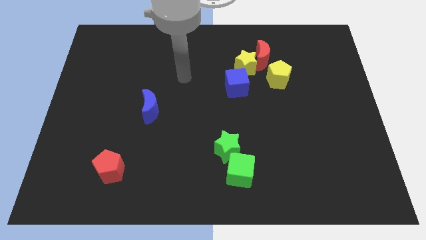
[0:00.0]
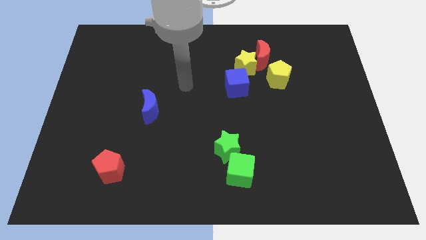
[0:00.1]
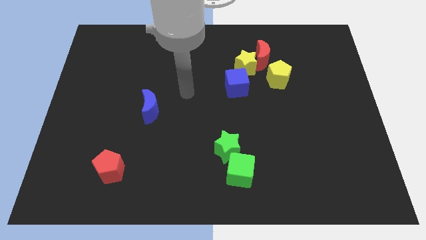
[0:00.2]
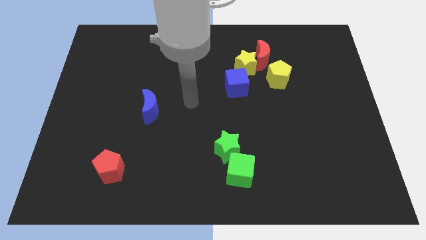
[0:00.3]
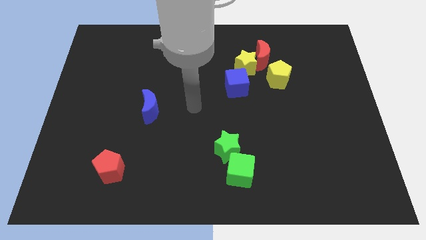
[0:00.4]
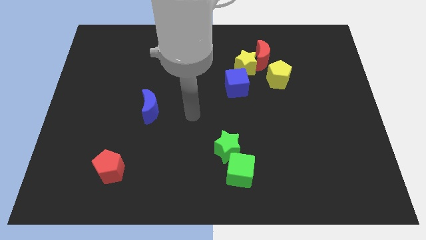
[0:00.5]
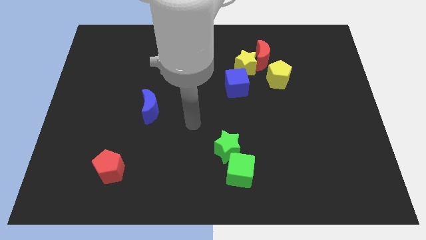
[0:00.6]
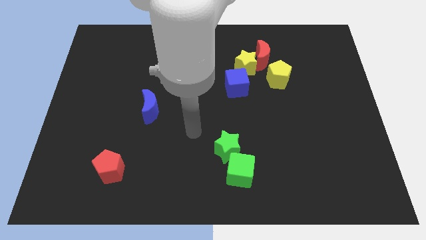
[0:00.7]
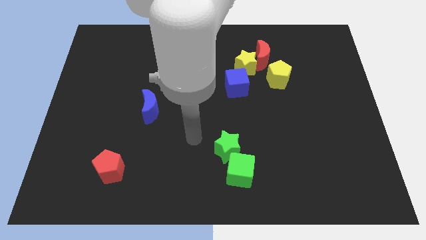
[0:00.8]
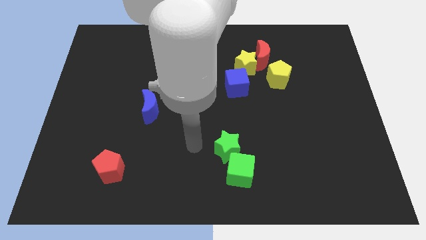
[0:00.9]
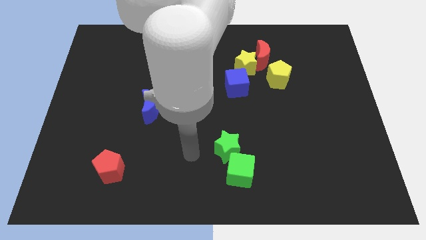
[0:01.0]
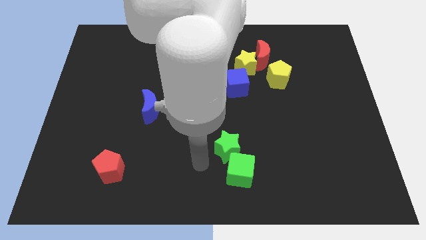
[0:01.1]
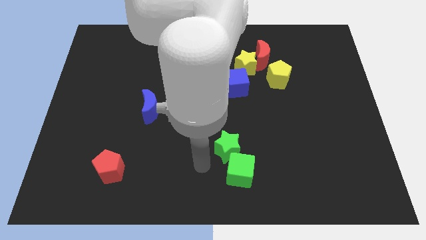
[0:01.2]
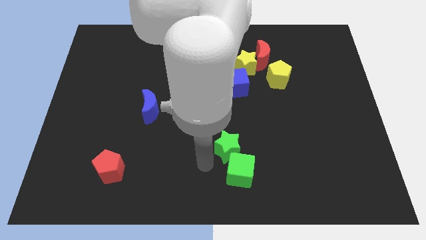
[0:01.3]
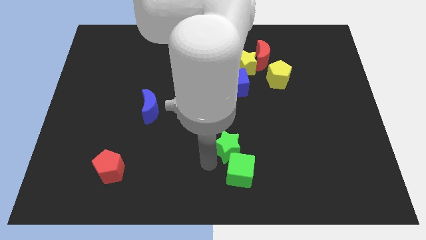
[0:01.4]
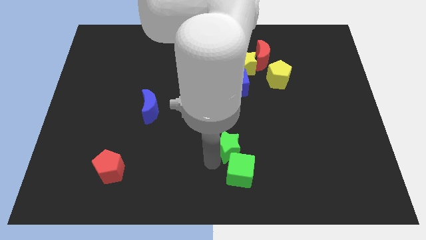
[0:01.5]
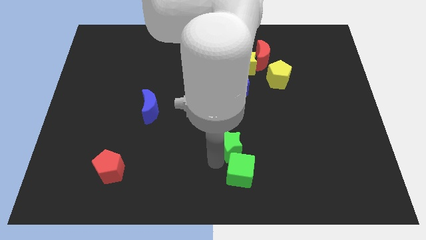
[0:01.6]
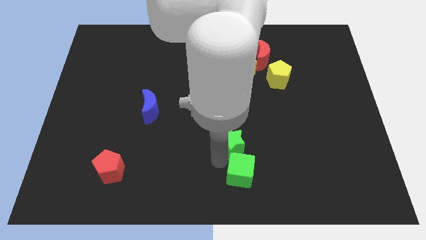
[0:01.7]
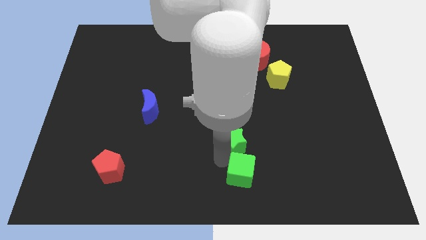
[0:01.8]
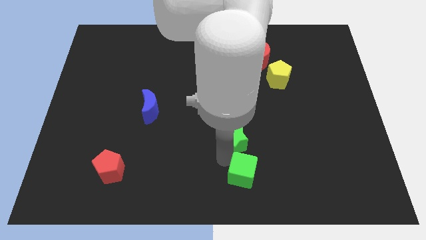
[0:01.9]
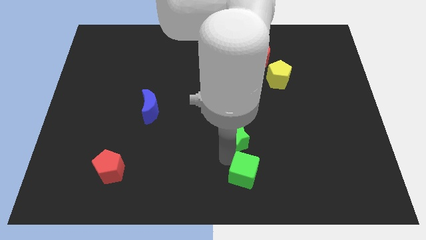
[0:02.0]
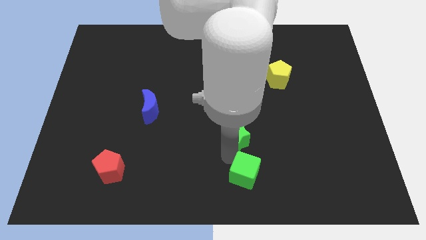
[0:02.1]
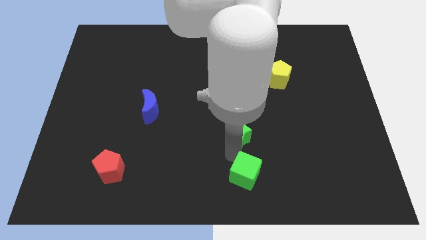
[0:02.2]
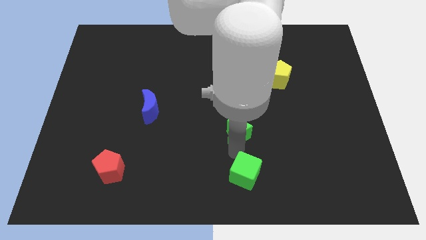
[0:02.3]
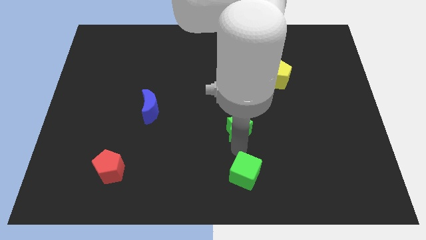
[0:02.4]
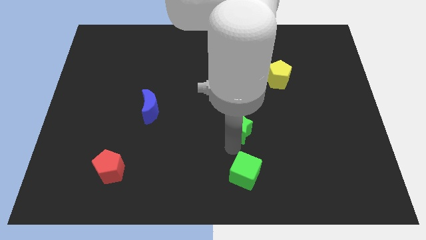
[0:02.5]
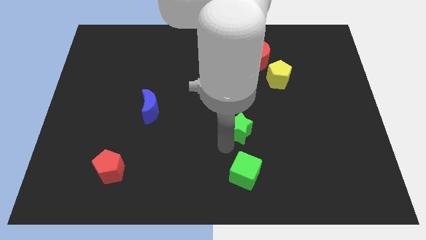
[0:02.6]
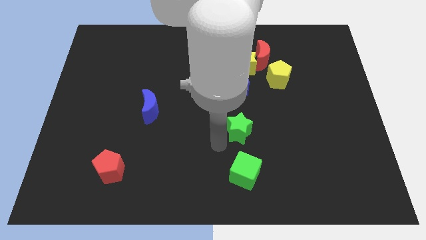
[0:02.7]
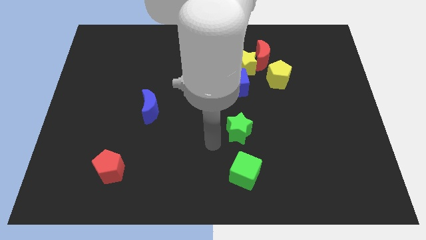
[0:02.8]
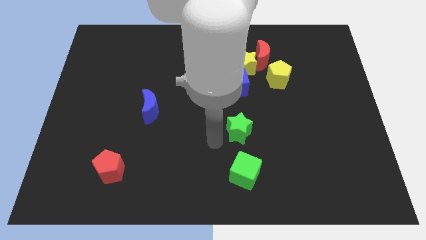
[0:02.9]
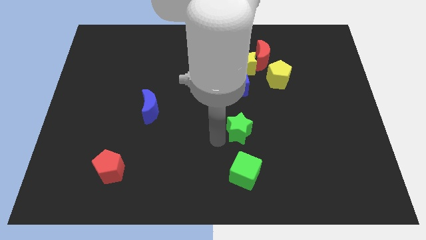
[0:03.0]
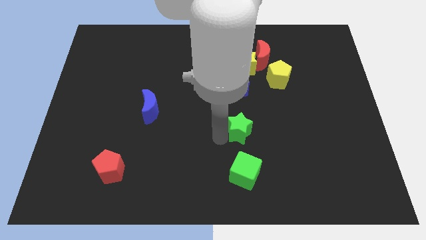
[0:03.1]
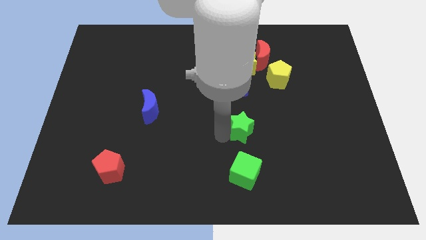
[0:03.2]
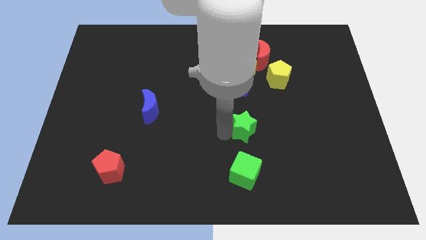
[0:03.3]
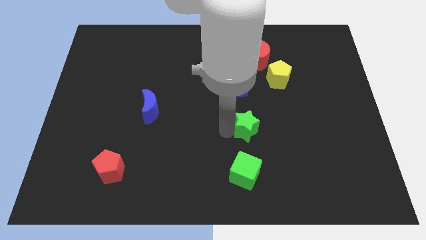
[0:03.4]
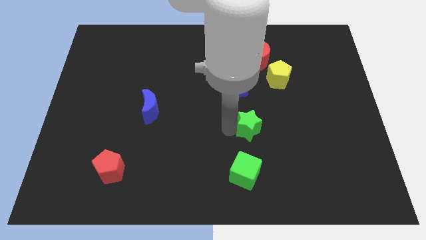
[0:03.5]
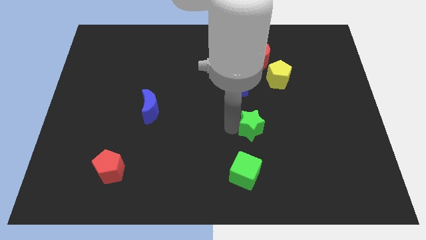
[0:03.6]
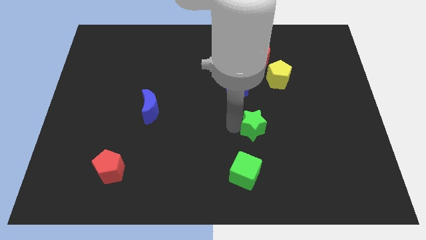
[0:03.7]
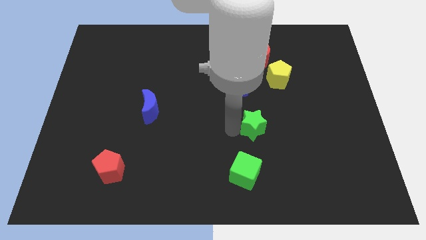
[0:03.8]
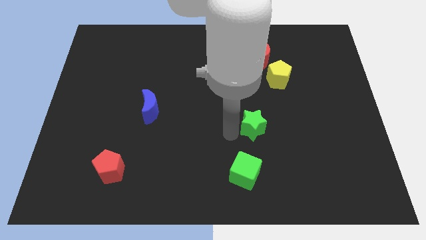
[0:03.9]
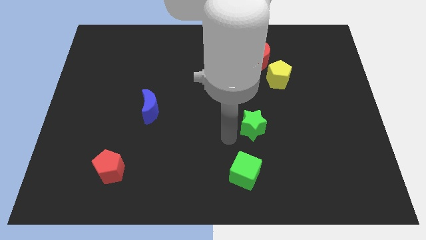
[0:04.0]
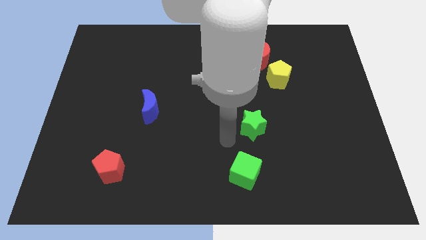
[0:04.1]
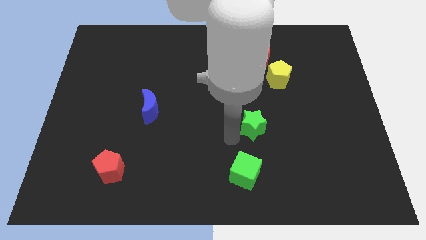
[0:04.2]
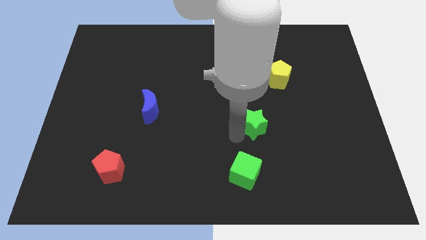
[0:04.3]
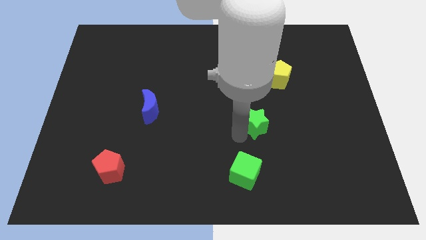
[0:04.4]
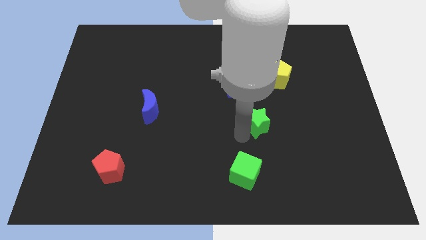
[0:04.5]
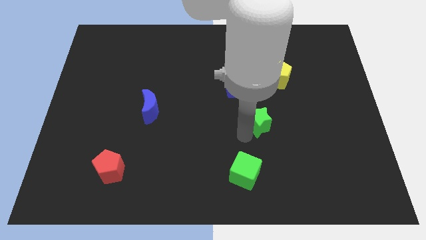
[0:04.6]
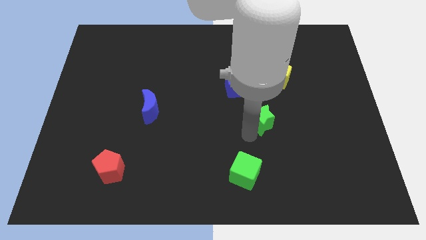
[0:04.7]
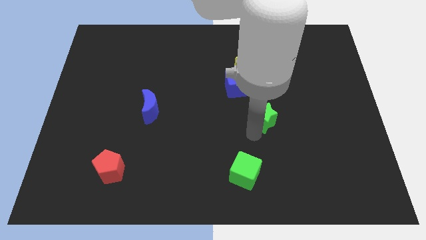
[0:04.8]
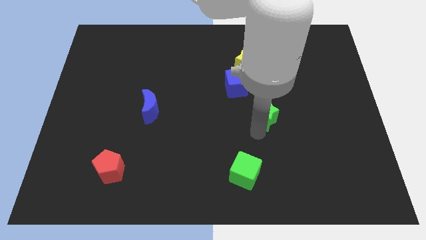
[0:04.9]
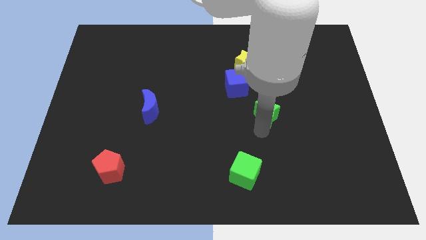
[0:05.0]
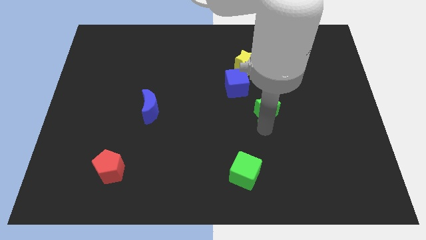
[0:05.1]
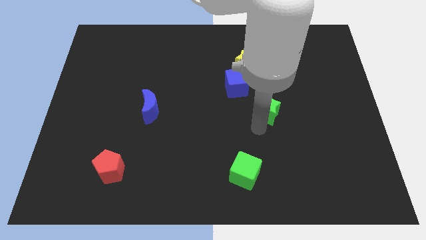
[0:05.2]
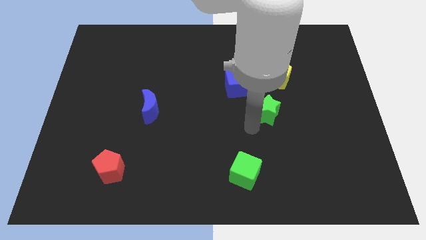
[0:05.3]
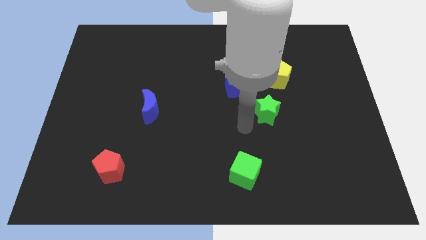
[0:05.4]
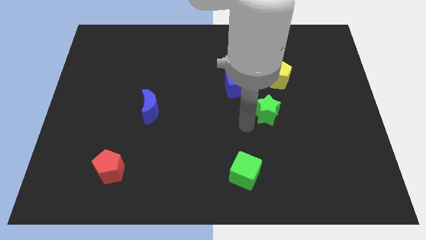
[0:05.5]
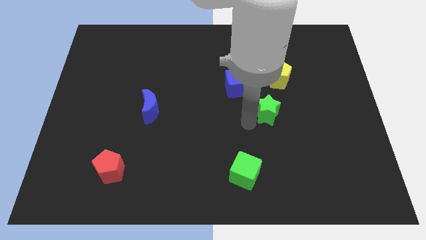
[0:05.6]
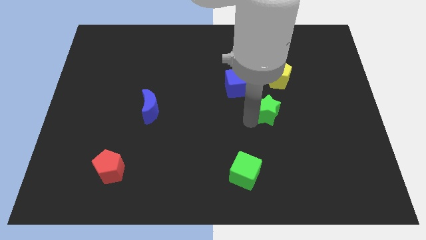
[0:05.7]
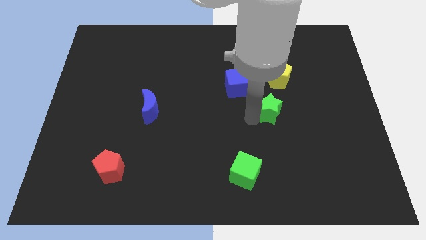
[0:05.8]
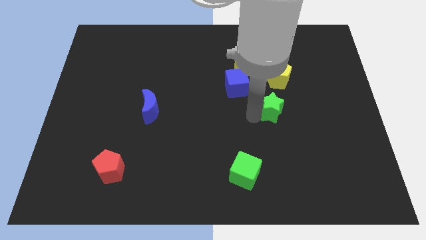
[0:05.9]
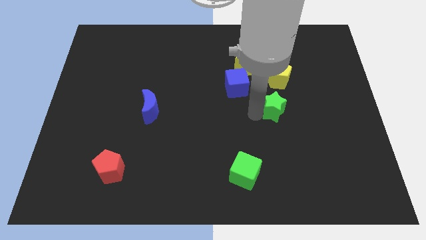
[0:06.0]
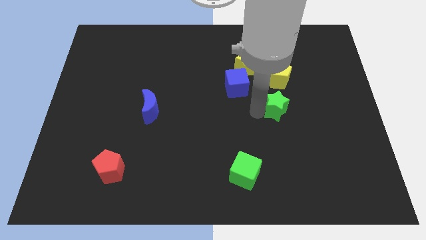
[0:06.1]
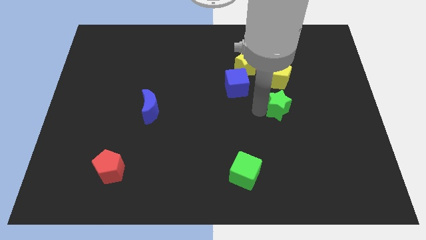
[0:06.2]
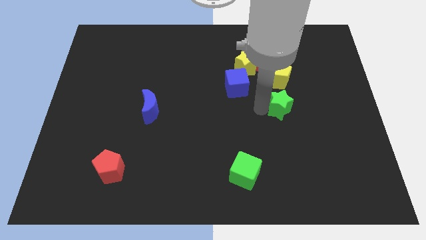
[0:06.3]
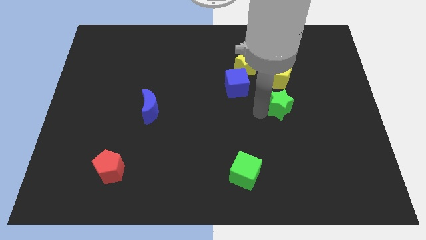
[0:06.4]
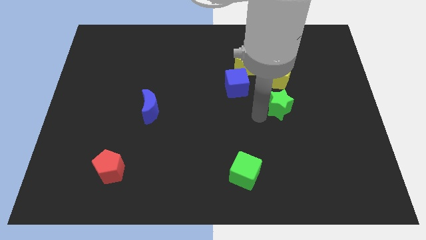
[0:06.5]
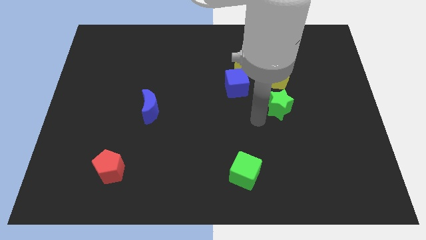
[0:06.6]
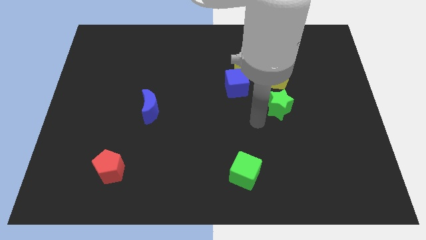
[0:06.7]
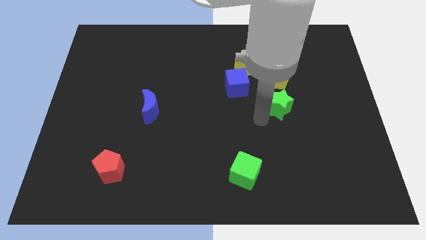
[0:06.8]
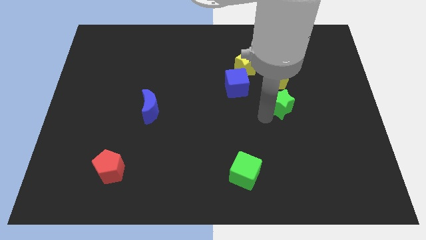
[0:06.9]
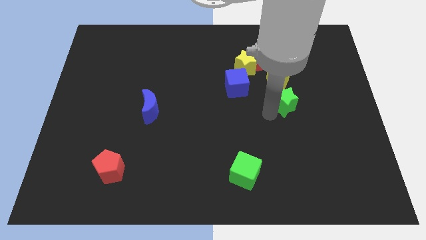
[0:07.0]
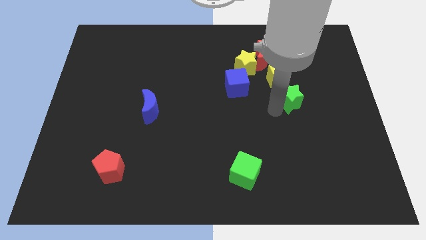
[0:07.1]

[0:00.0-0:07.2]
push the green star diagonally down and to the right of the yellow pentagon

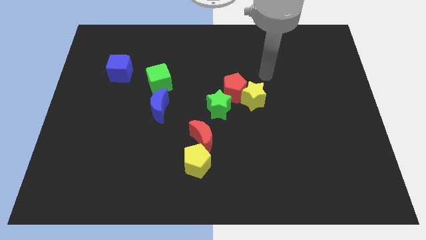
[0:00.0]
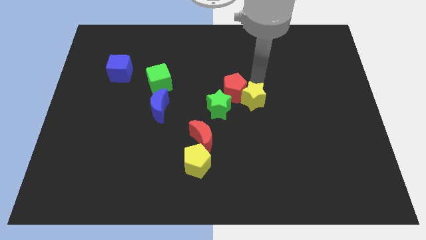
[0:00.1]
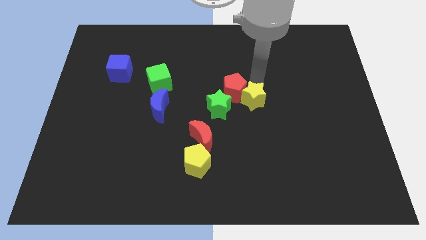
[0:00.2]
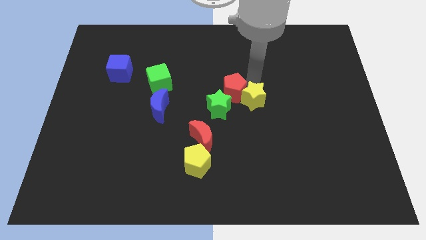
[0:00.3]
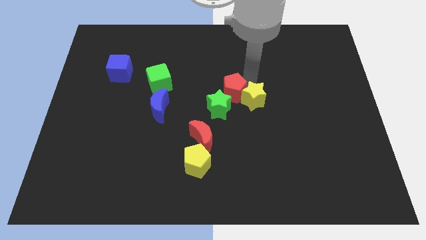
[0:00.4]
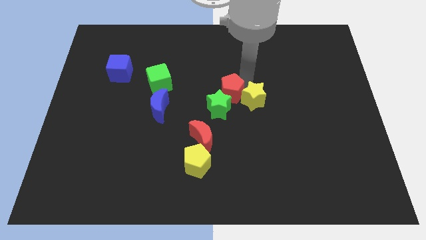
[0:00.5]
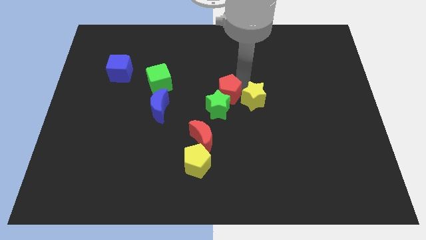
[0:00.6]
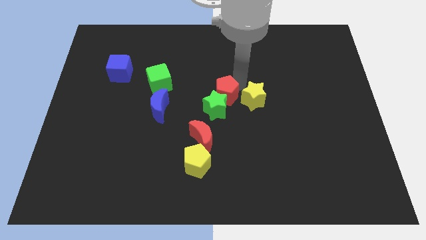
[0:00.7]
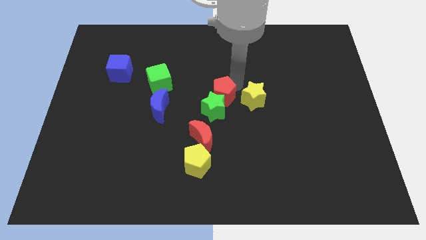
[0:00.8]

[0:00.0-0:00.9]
slide the red pentagon to the top of the red moon
